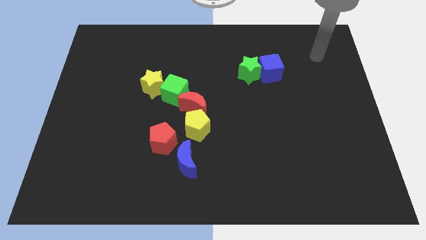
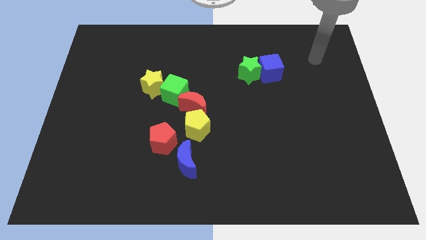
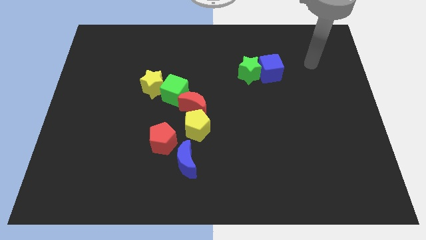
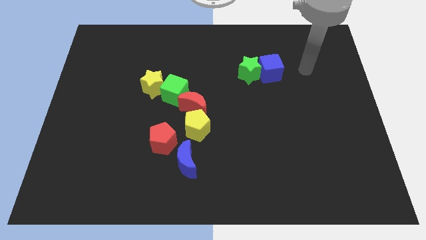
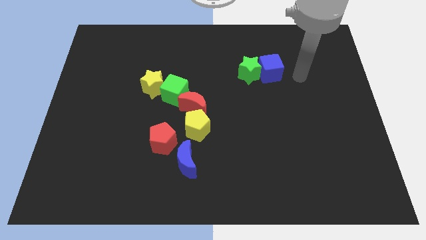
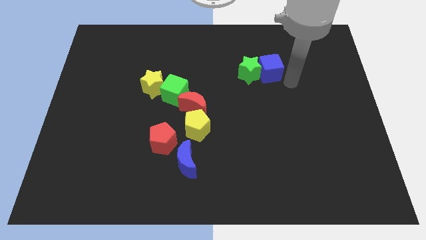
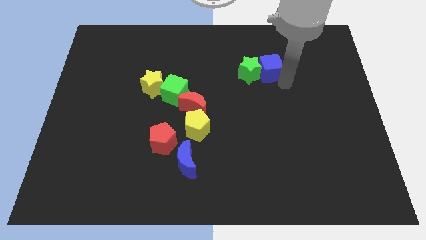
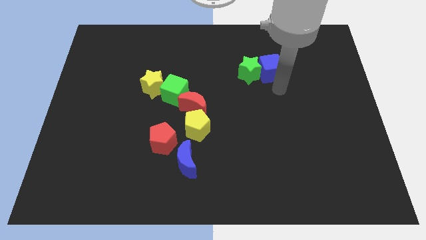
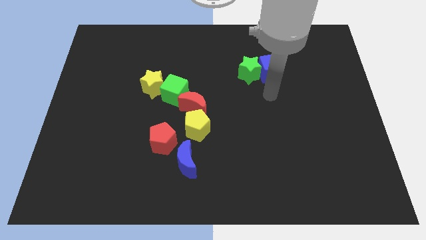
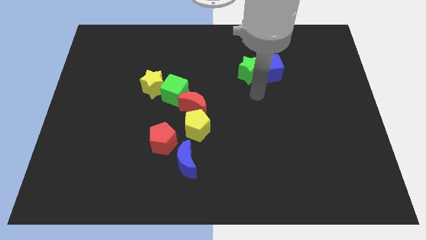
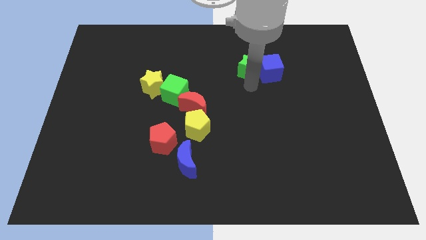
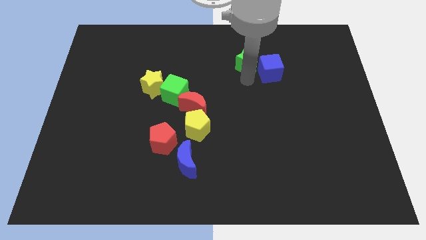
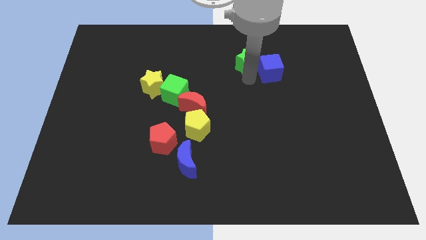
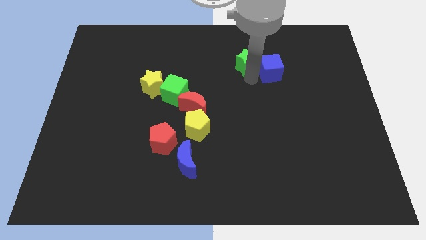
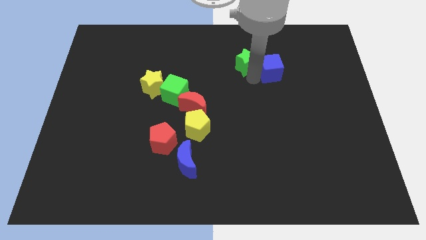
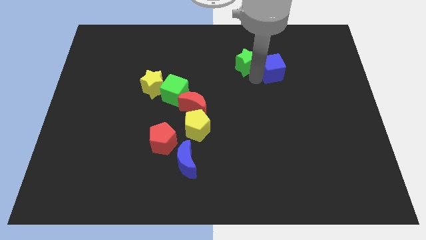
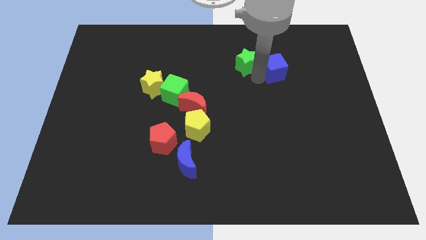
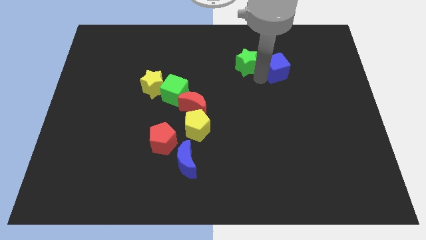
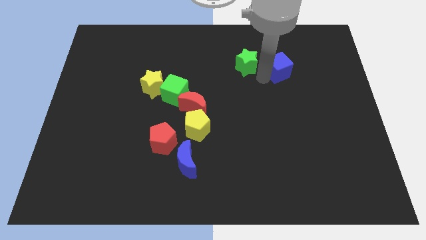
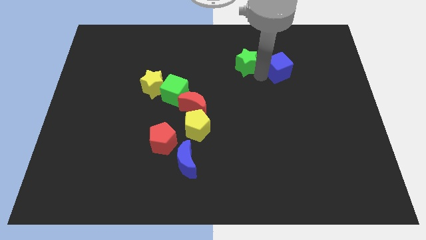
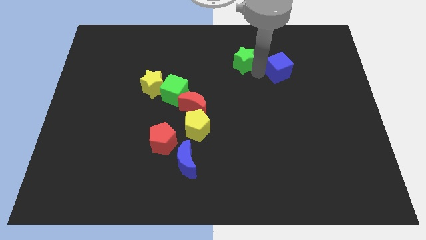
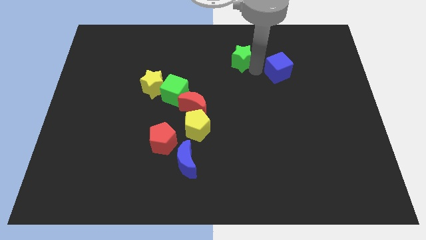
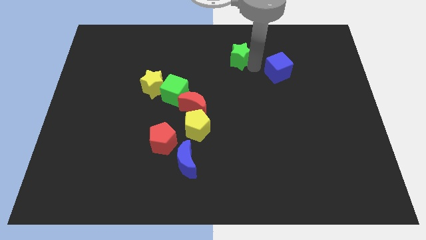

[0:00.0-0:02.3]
separate the blue cube from the green star

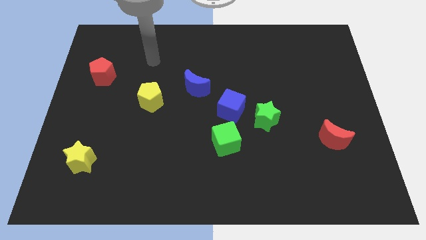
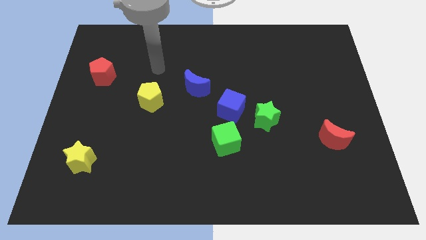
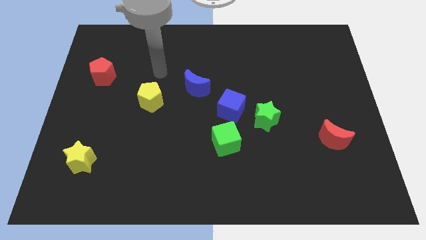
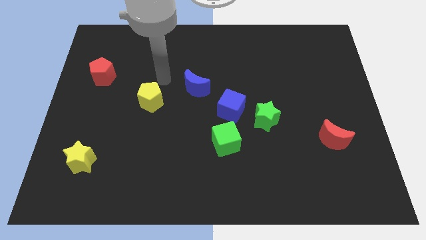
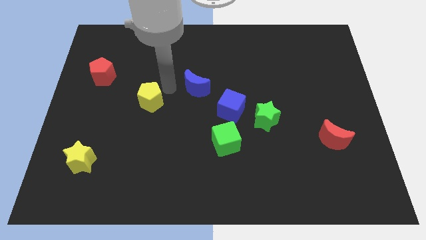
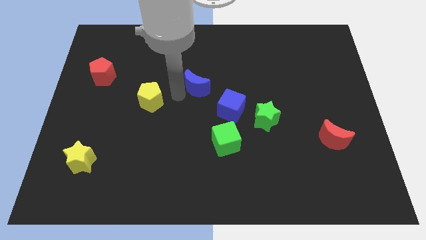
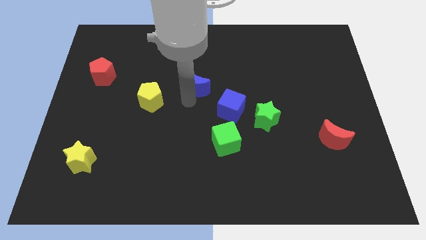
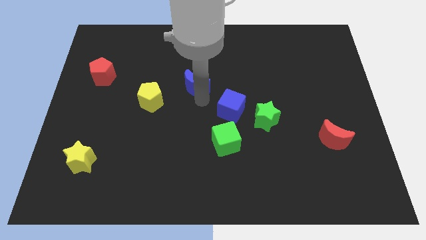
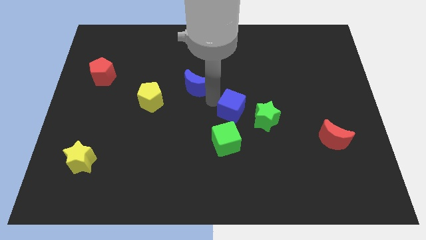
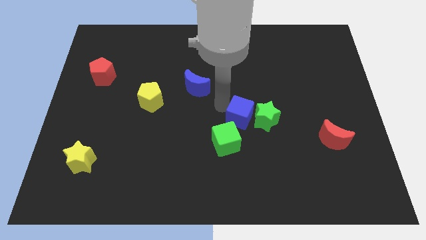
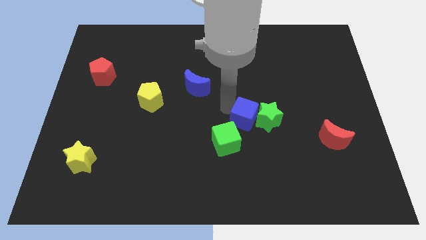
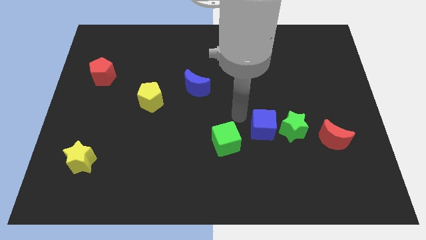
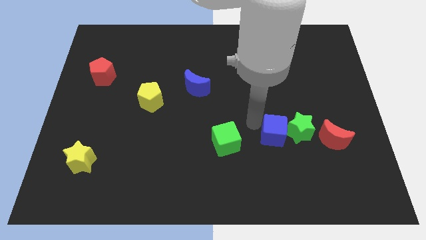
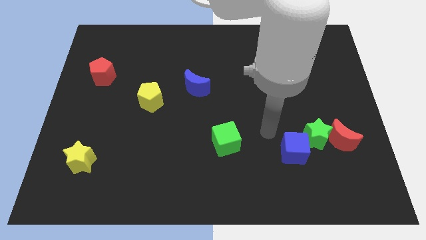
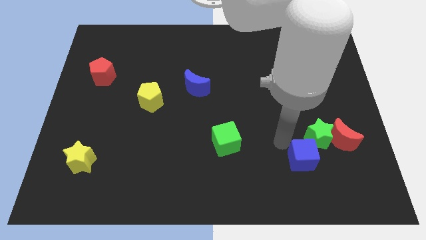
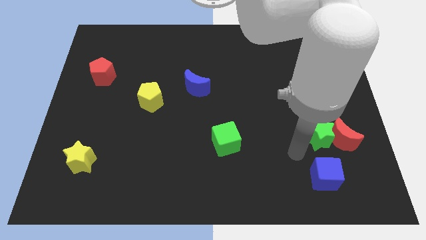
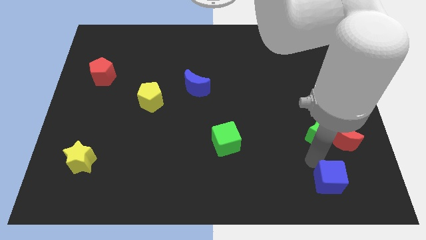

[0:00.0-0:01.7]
separate the green star from the blue cube

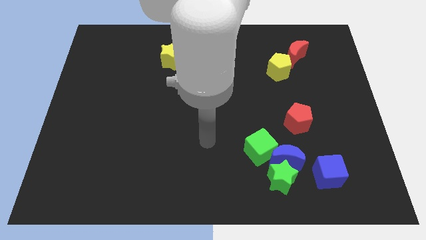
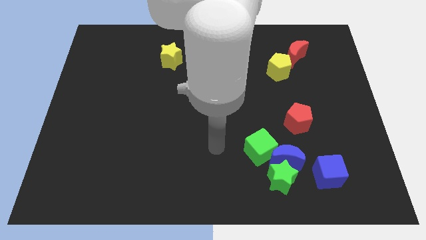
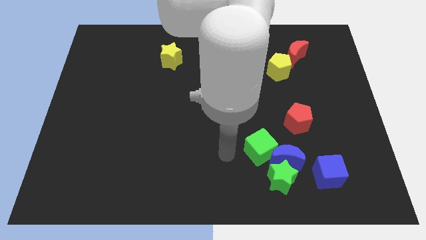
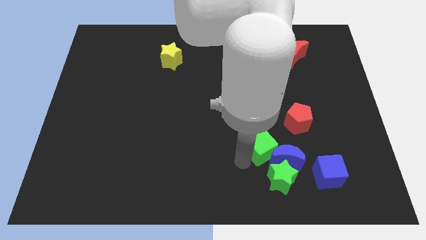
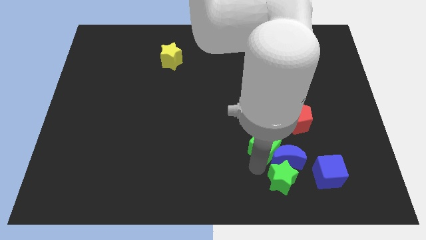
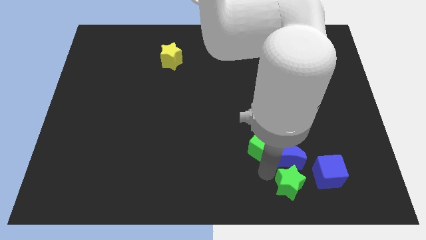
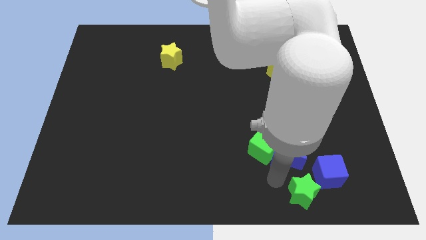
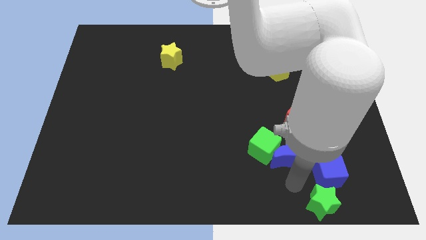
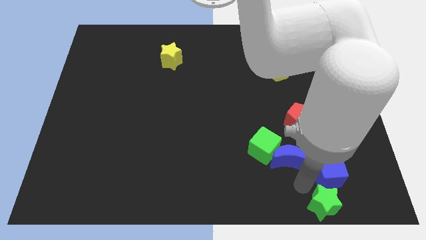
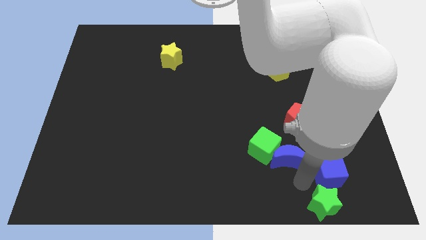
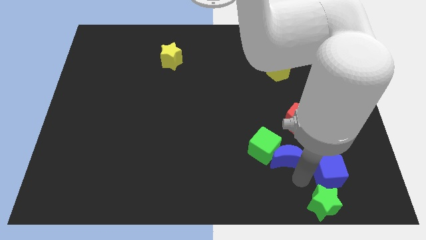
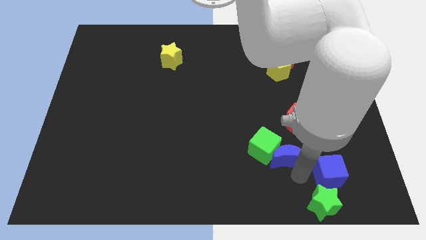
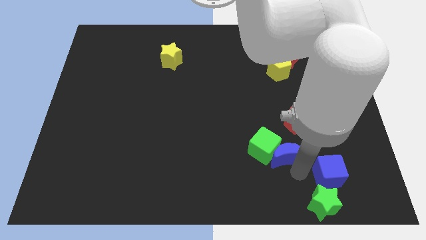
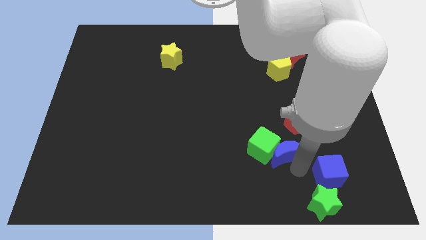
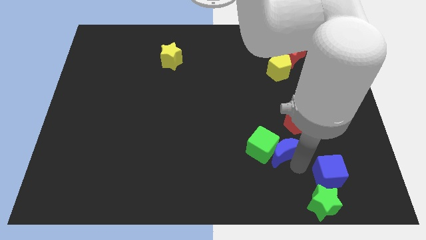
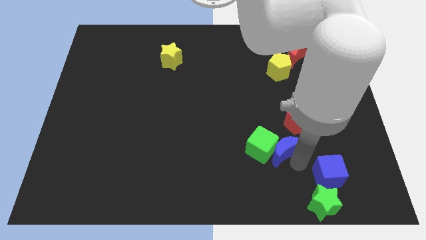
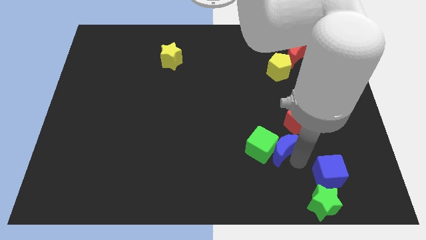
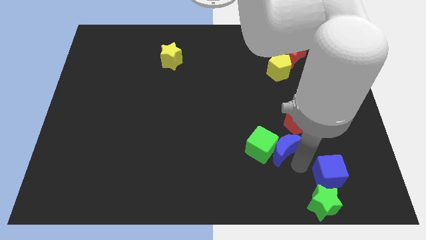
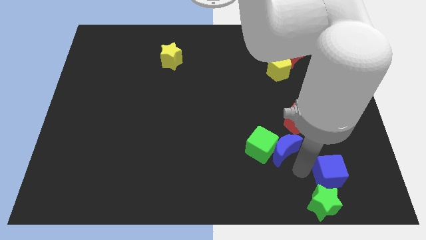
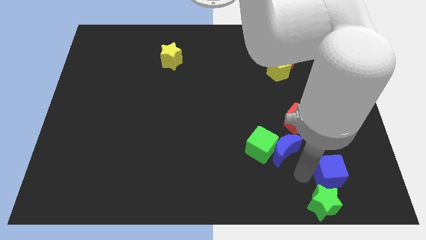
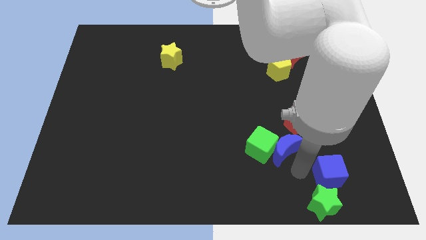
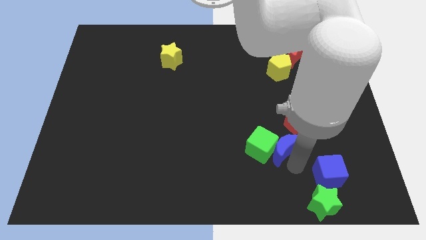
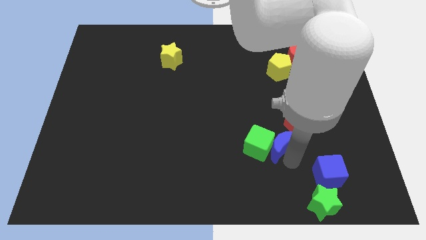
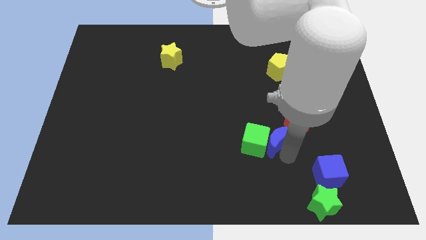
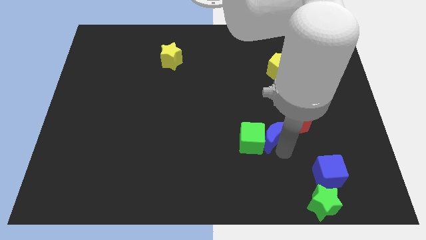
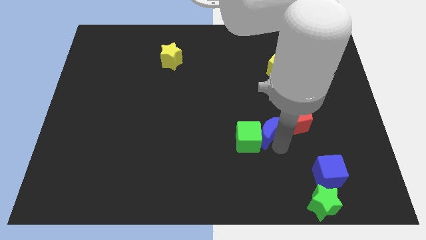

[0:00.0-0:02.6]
move the blue moon away from the green star, green cube, and blue cube

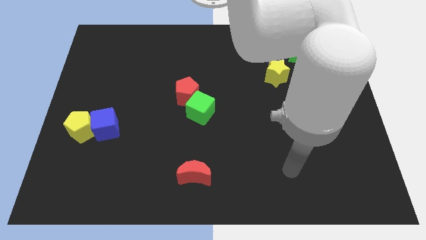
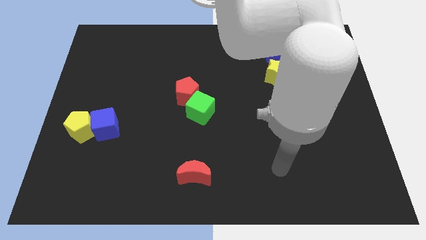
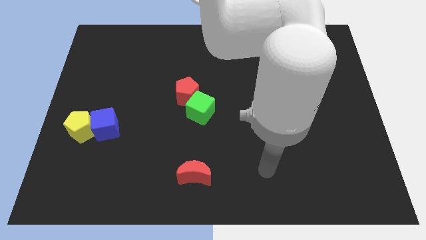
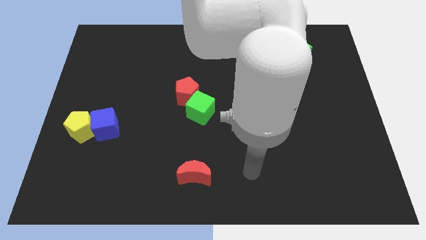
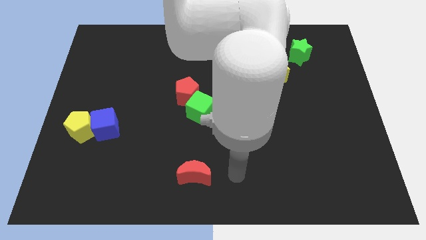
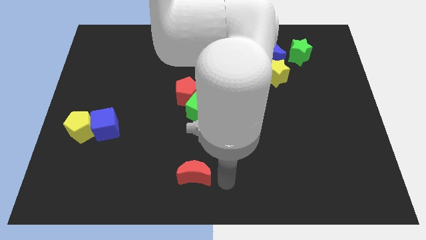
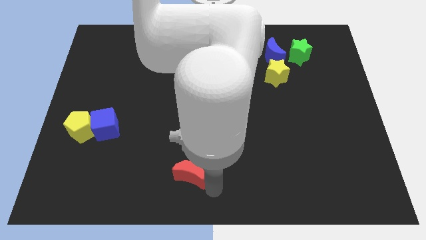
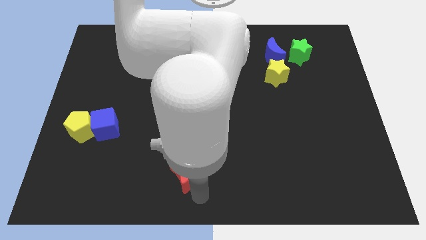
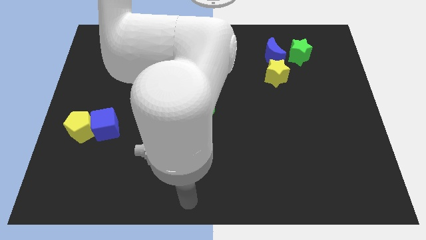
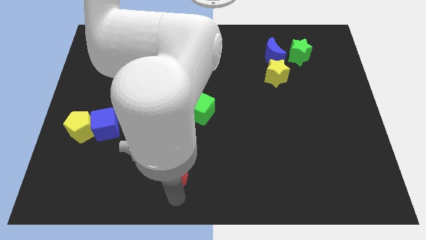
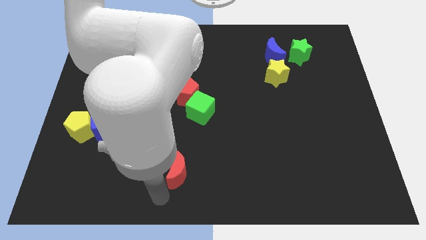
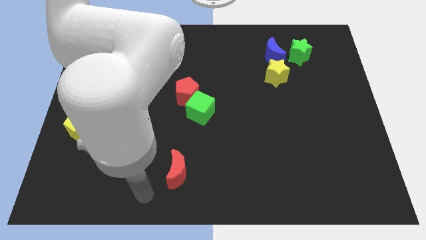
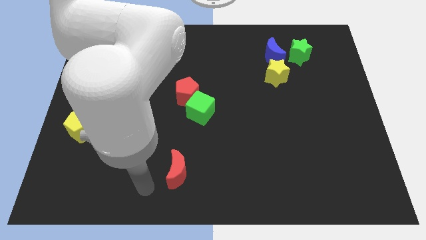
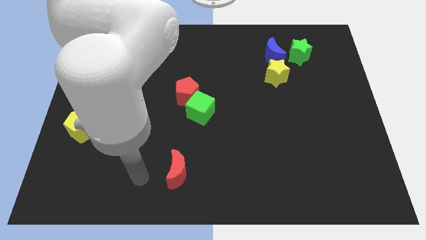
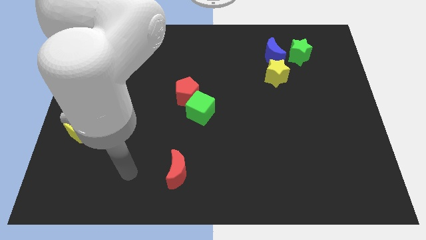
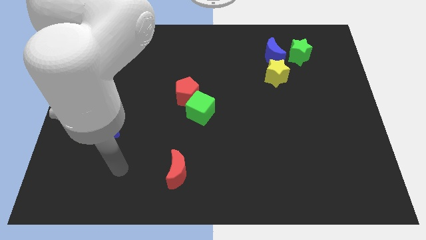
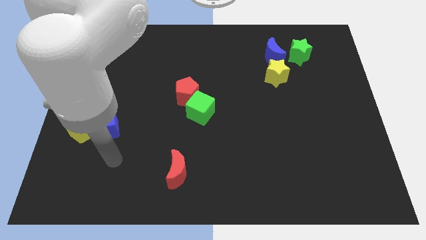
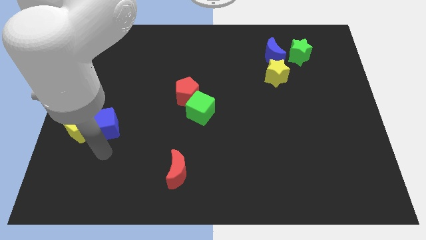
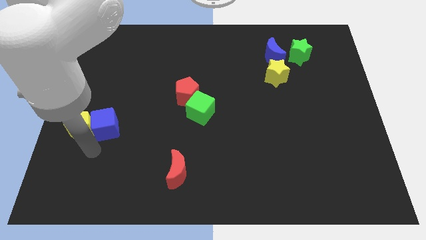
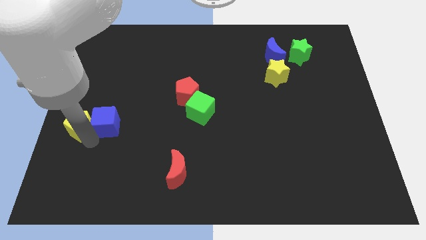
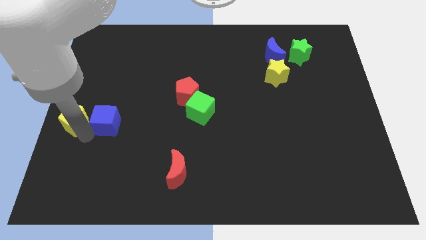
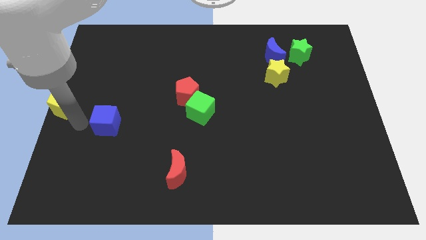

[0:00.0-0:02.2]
move the blue cube away from the yellow pentagon

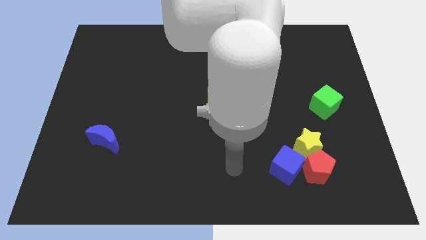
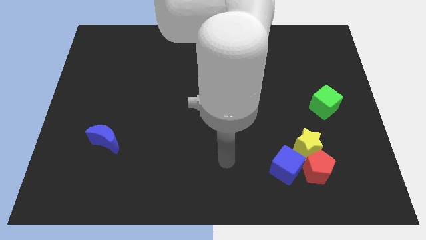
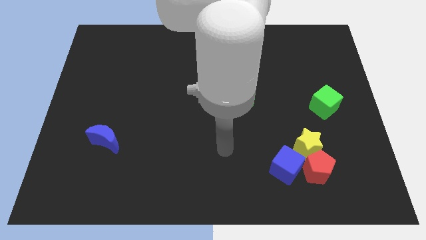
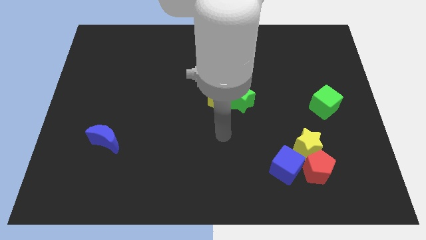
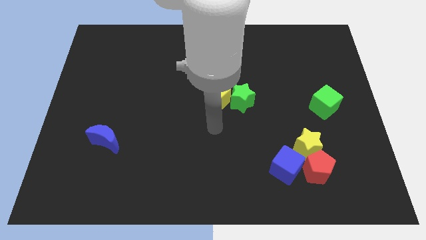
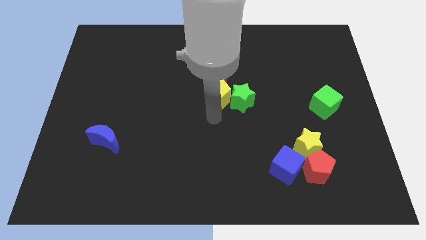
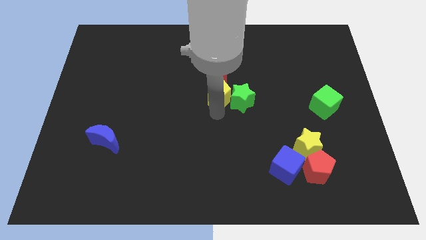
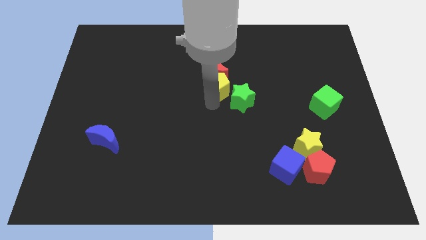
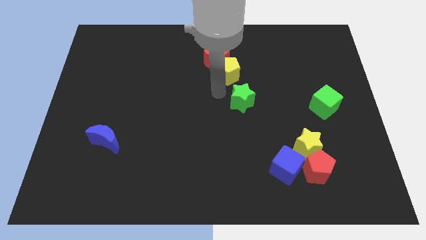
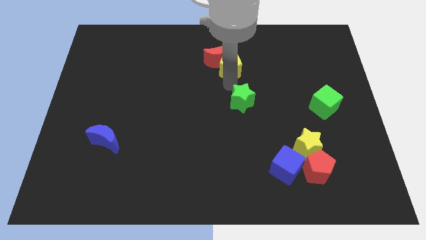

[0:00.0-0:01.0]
separate the green star from the yellow pentagon
